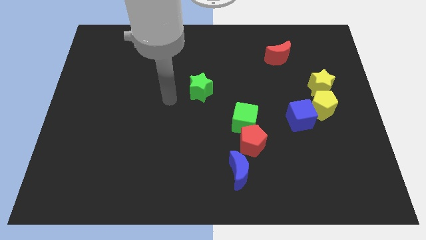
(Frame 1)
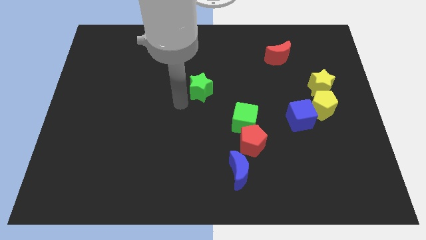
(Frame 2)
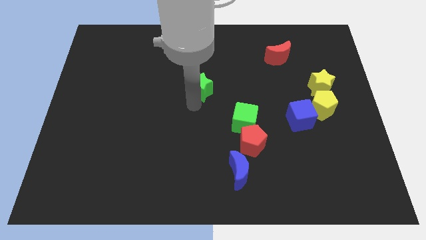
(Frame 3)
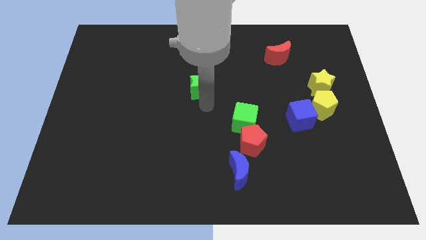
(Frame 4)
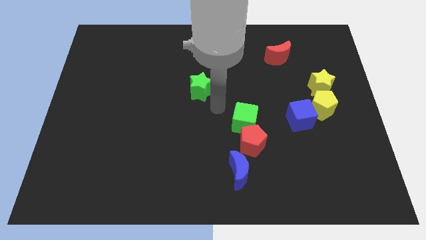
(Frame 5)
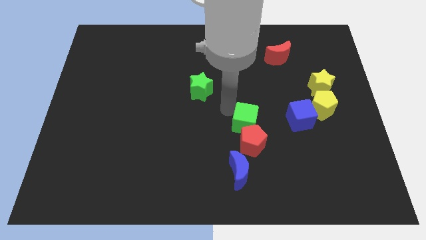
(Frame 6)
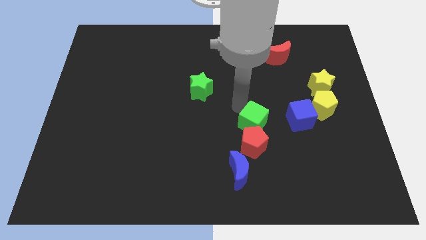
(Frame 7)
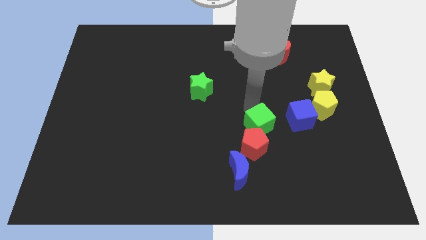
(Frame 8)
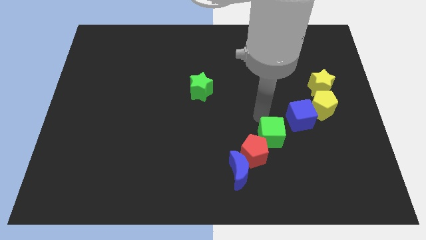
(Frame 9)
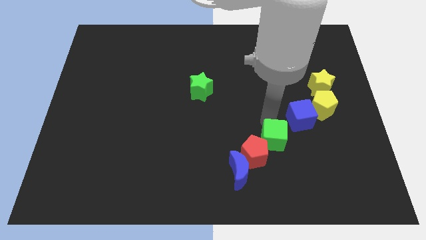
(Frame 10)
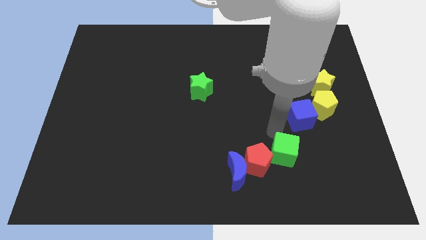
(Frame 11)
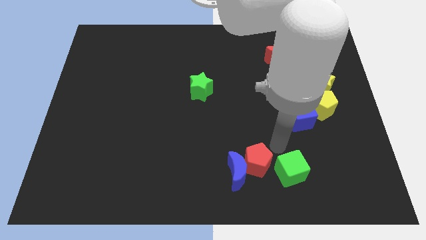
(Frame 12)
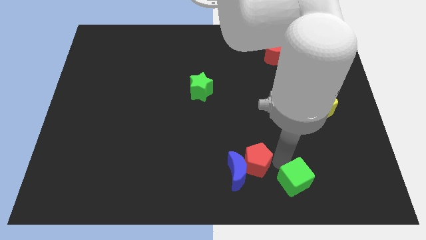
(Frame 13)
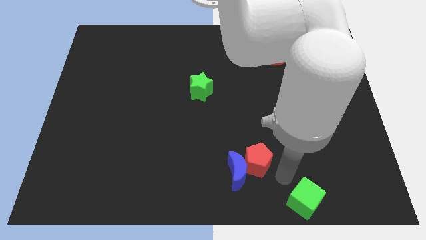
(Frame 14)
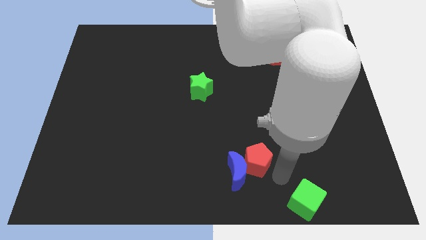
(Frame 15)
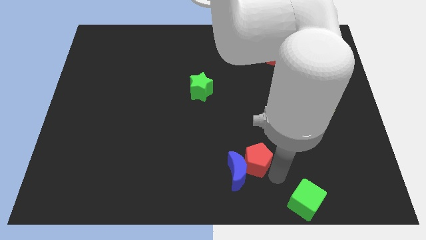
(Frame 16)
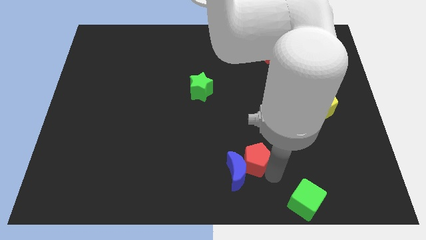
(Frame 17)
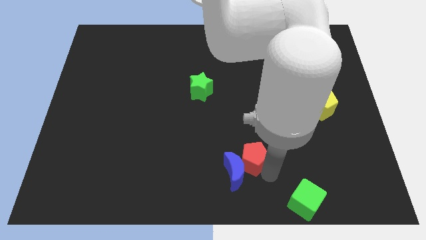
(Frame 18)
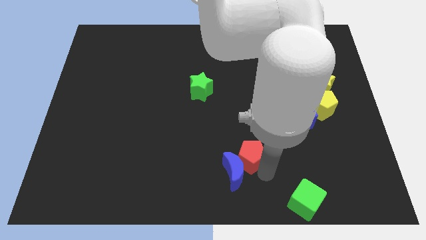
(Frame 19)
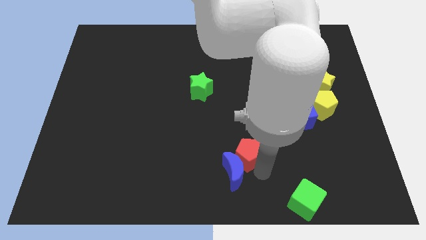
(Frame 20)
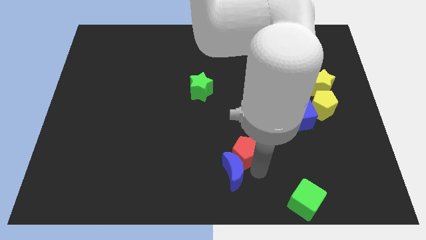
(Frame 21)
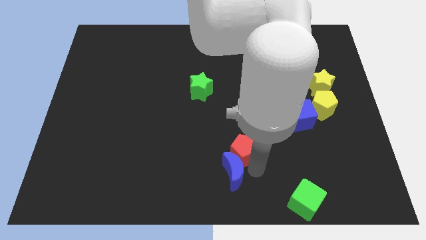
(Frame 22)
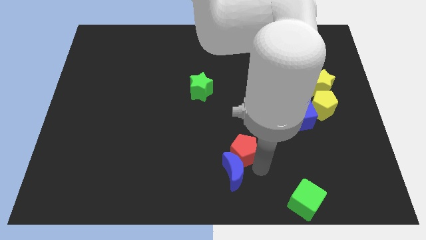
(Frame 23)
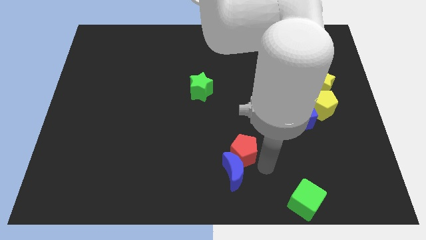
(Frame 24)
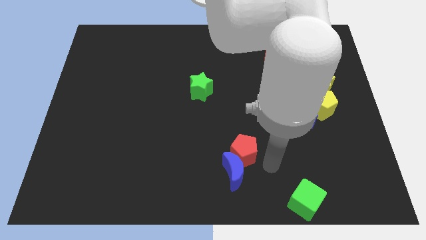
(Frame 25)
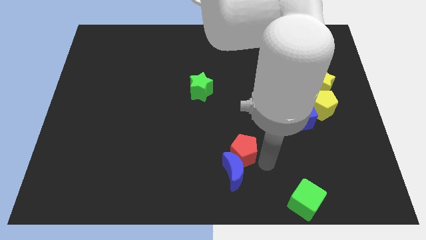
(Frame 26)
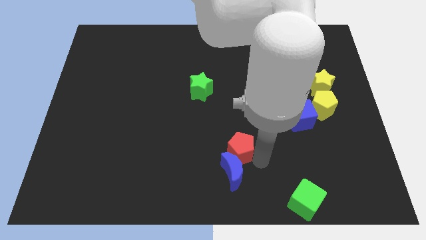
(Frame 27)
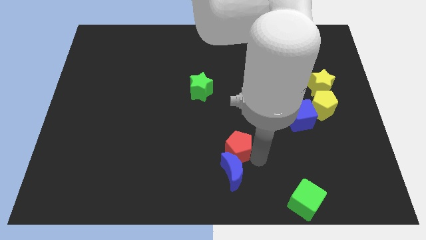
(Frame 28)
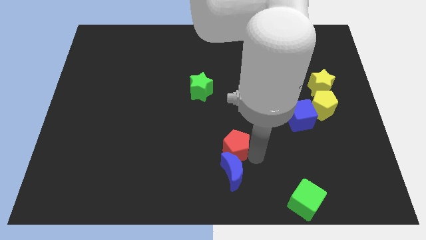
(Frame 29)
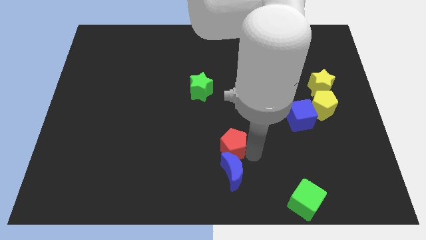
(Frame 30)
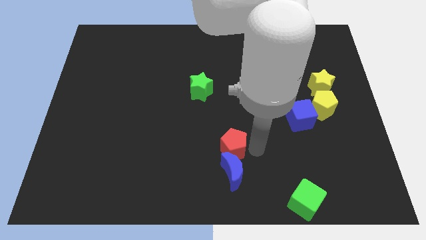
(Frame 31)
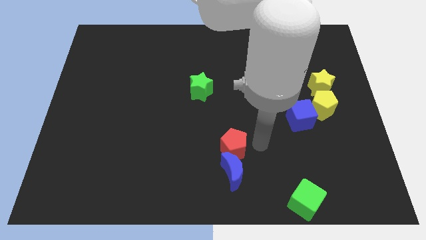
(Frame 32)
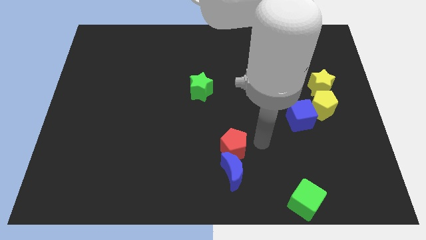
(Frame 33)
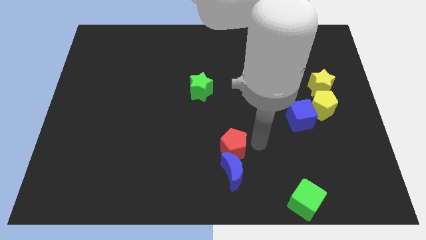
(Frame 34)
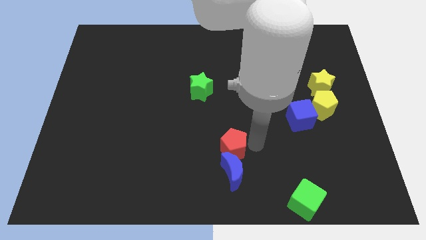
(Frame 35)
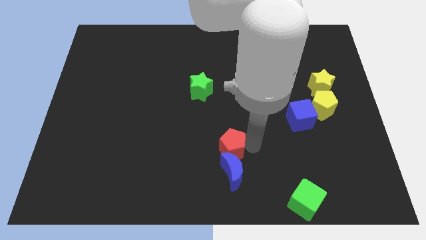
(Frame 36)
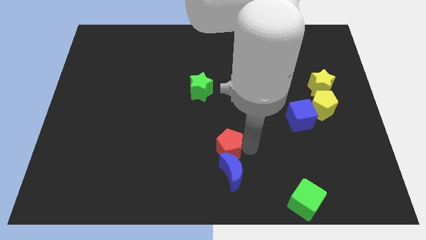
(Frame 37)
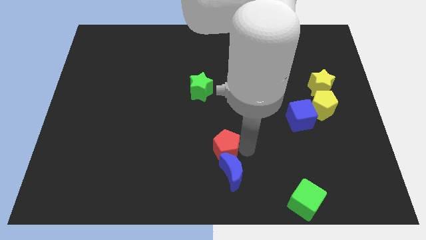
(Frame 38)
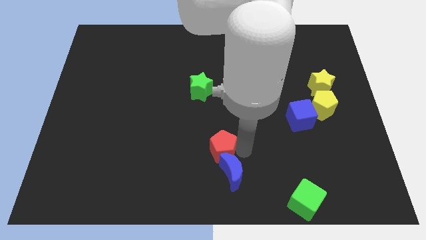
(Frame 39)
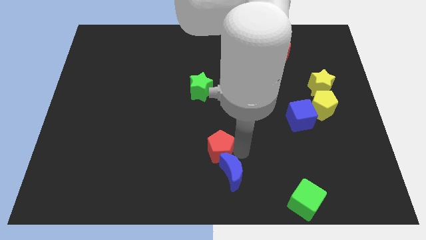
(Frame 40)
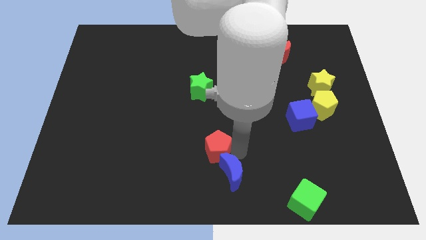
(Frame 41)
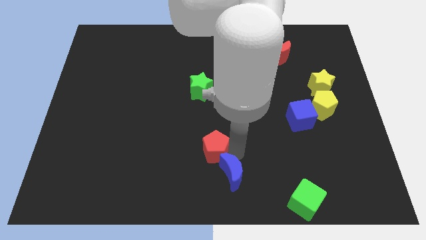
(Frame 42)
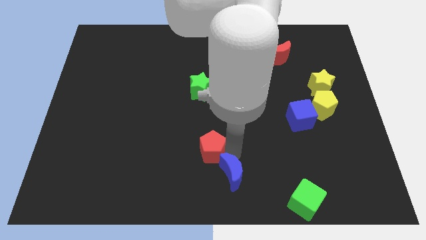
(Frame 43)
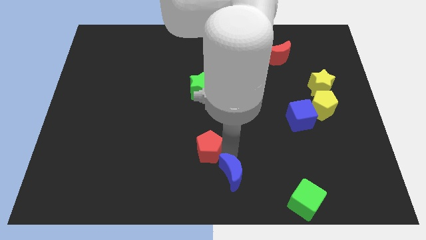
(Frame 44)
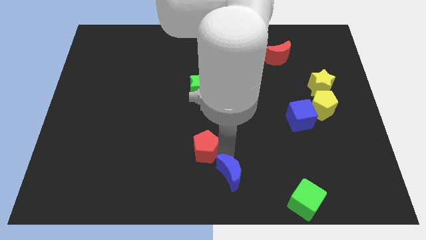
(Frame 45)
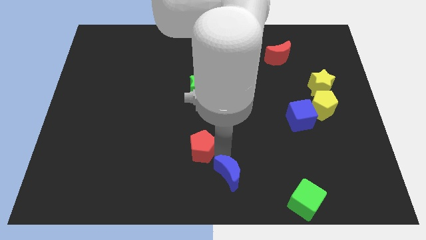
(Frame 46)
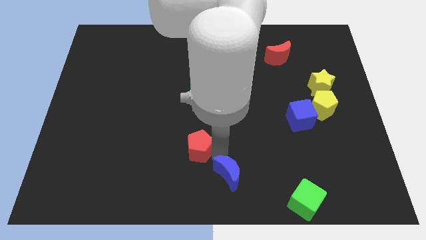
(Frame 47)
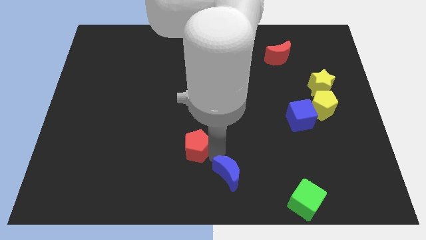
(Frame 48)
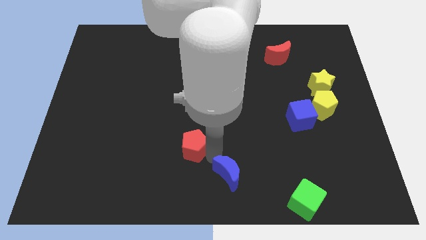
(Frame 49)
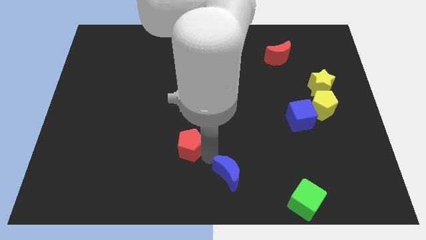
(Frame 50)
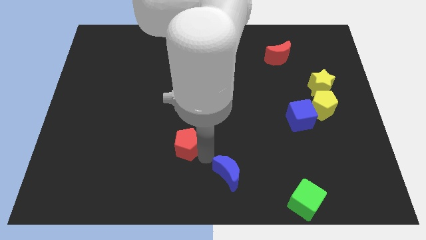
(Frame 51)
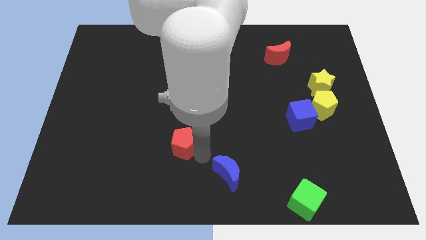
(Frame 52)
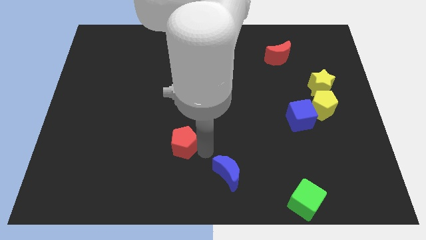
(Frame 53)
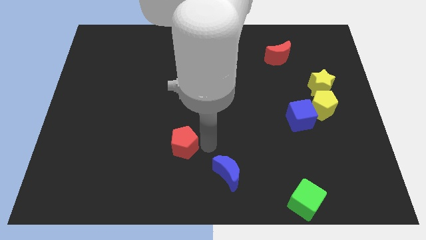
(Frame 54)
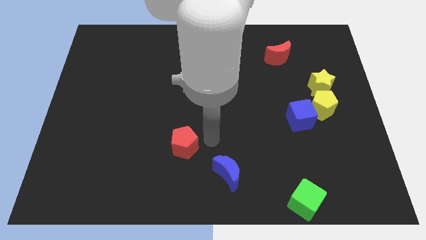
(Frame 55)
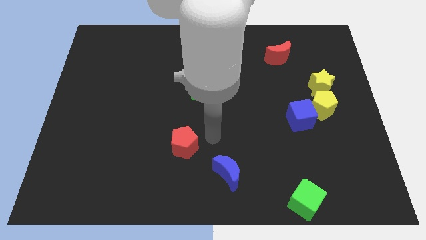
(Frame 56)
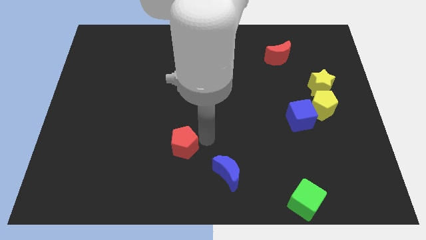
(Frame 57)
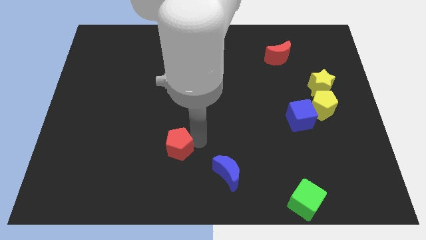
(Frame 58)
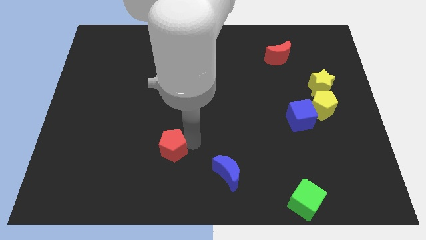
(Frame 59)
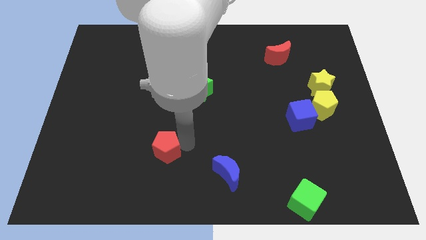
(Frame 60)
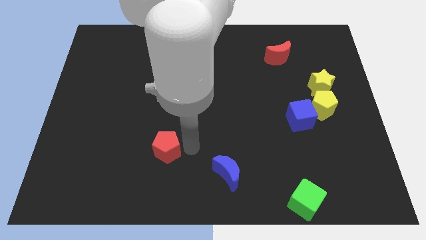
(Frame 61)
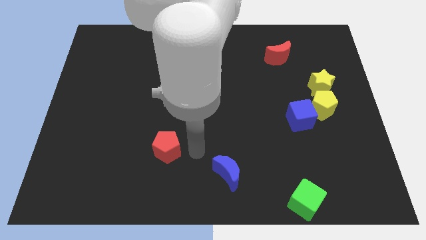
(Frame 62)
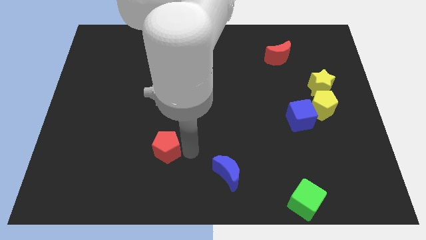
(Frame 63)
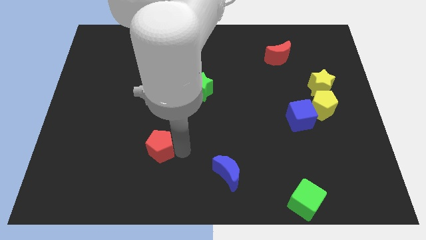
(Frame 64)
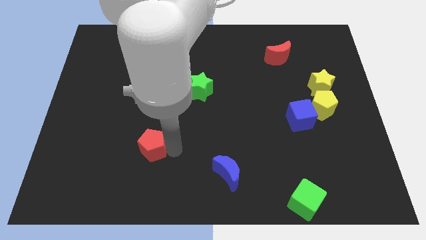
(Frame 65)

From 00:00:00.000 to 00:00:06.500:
move the red pentagon to the left

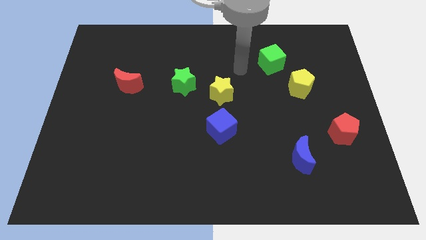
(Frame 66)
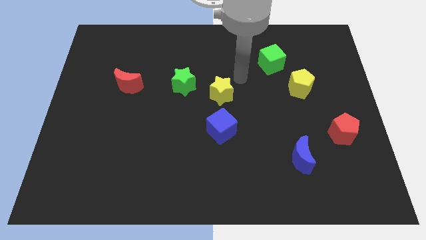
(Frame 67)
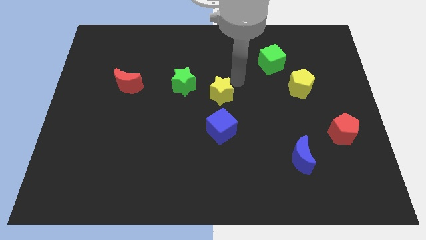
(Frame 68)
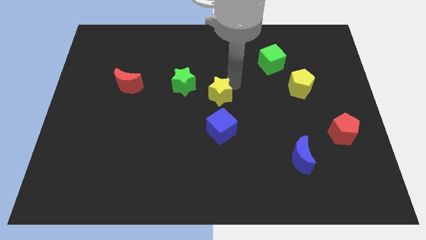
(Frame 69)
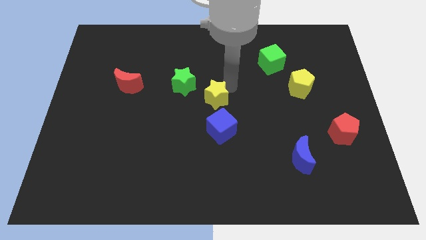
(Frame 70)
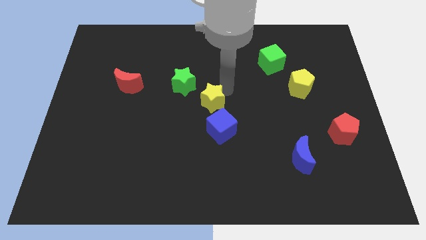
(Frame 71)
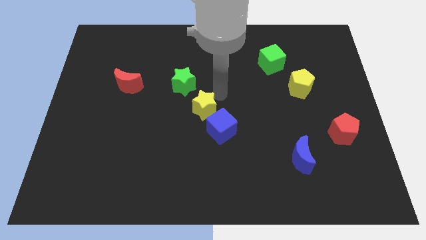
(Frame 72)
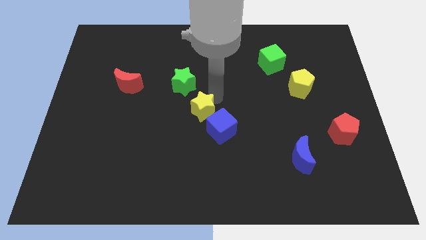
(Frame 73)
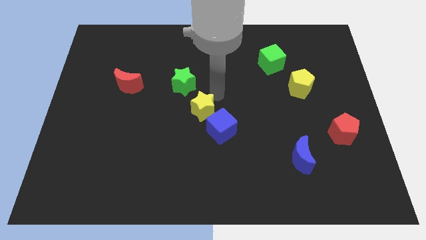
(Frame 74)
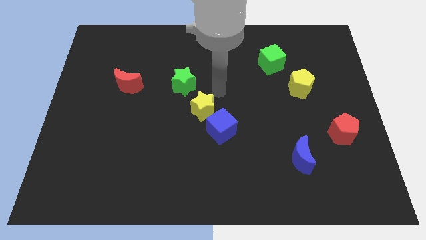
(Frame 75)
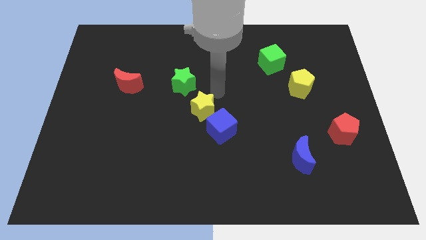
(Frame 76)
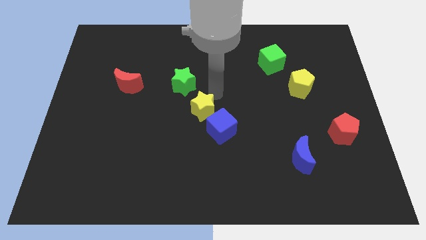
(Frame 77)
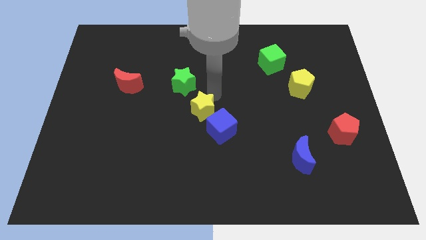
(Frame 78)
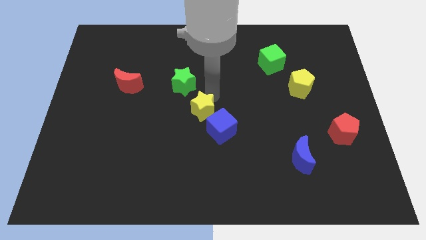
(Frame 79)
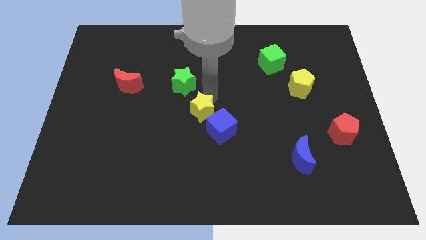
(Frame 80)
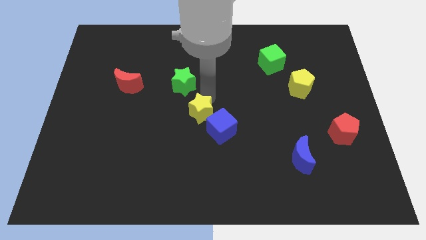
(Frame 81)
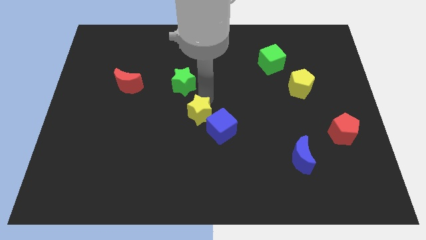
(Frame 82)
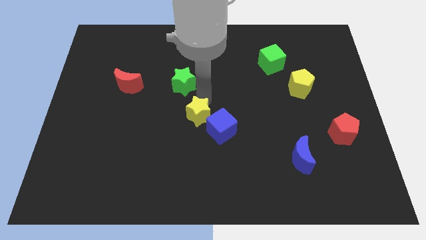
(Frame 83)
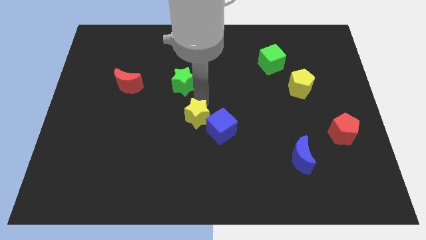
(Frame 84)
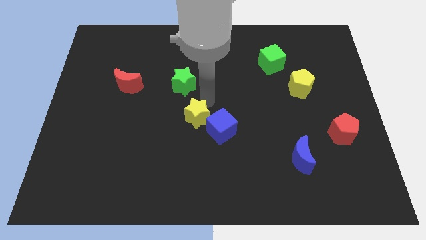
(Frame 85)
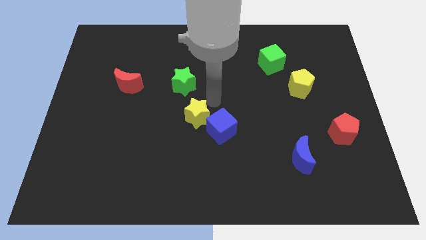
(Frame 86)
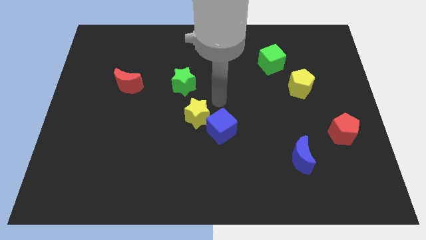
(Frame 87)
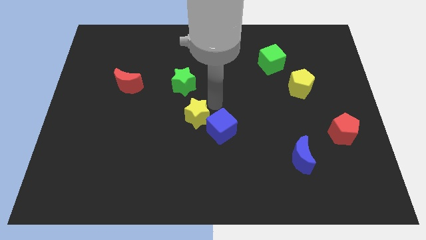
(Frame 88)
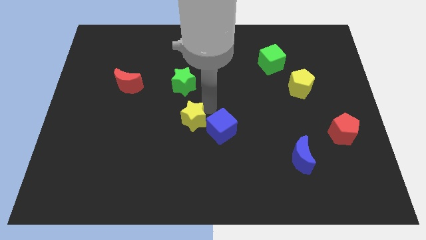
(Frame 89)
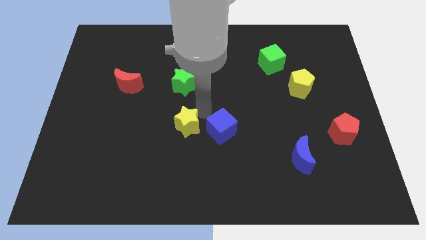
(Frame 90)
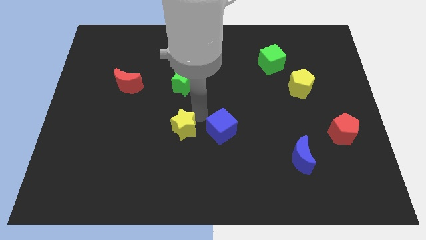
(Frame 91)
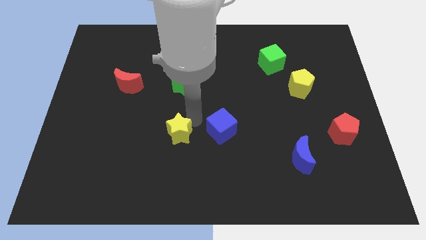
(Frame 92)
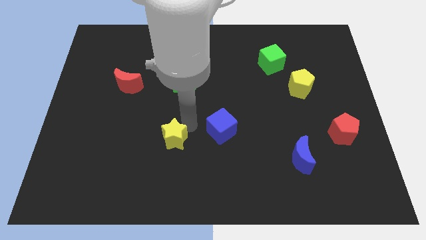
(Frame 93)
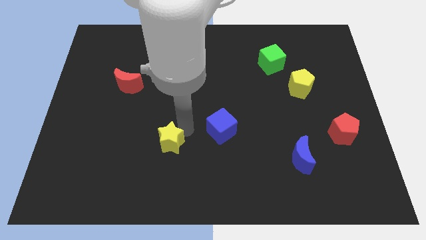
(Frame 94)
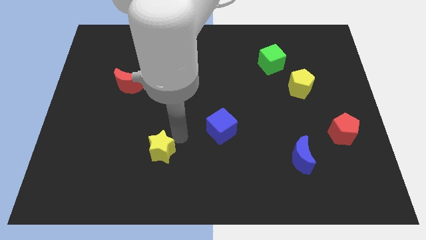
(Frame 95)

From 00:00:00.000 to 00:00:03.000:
push the yellow star downwards and then to the left
